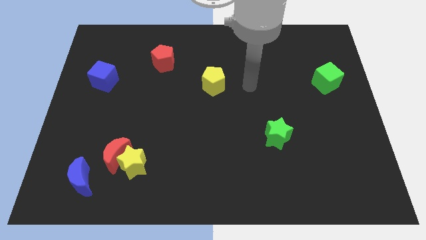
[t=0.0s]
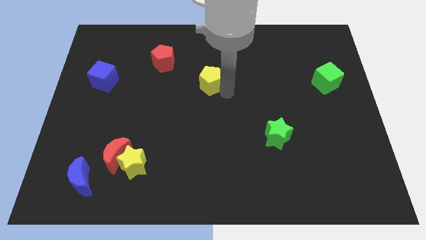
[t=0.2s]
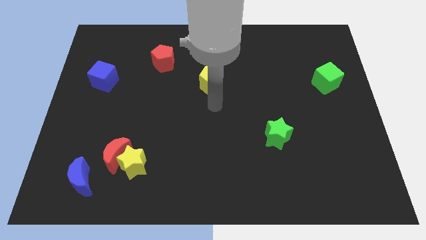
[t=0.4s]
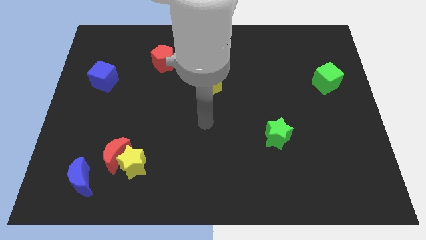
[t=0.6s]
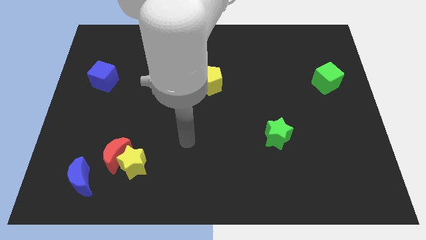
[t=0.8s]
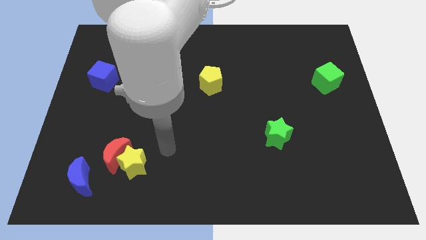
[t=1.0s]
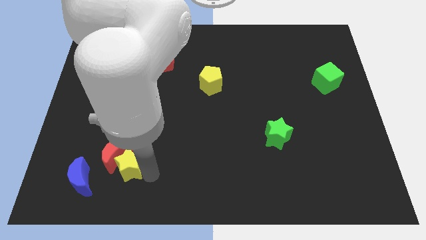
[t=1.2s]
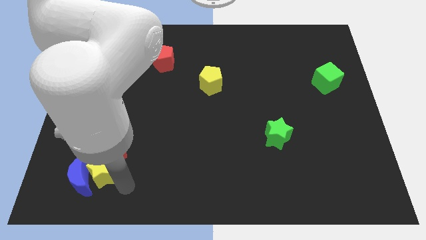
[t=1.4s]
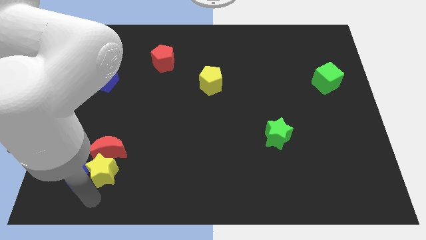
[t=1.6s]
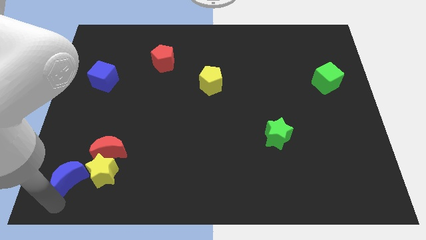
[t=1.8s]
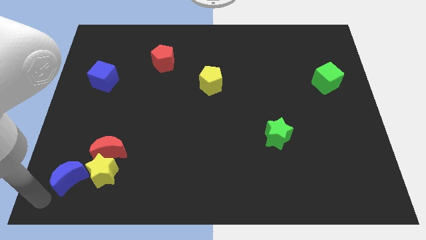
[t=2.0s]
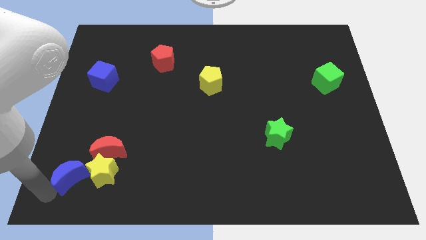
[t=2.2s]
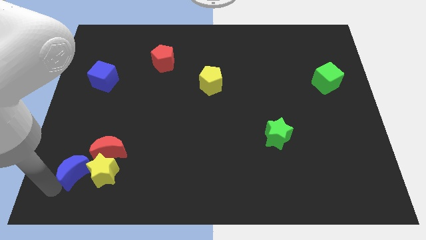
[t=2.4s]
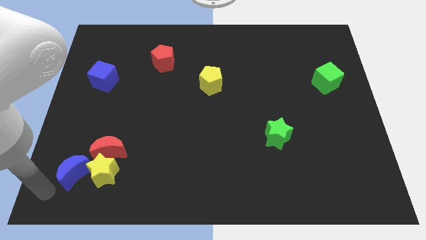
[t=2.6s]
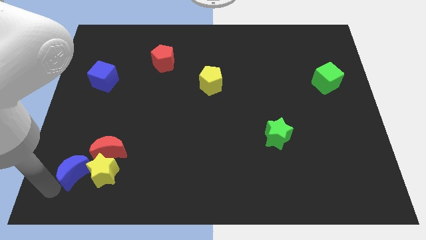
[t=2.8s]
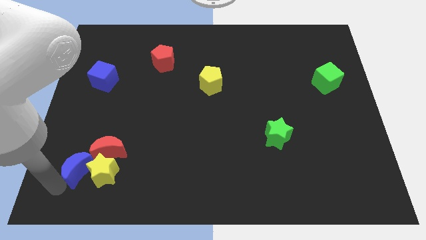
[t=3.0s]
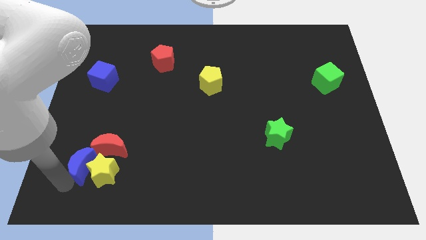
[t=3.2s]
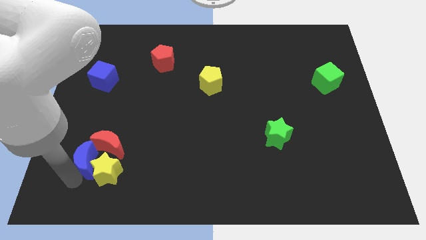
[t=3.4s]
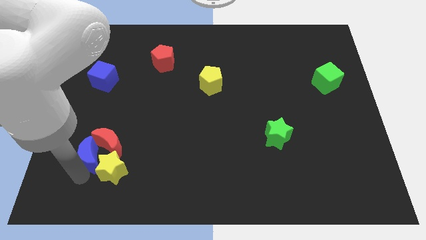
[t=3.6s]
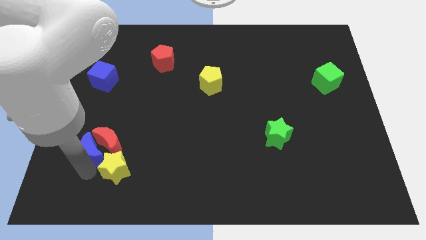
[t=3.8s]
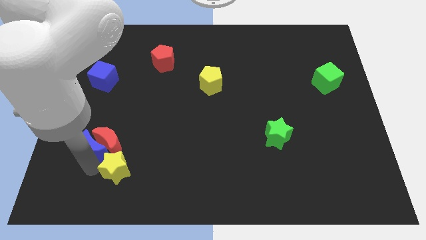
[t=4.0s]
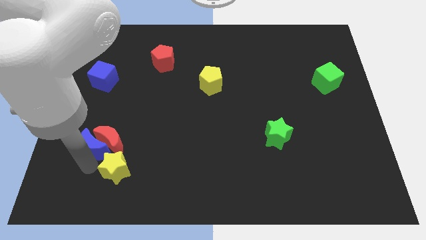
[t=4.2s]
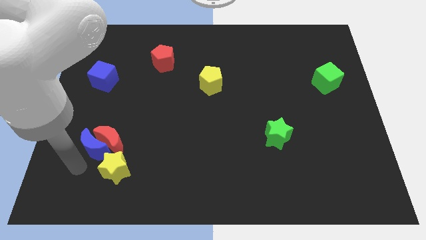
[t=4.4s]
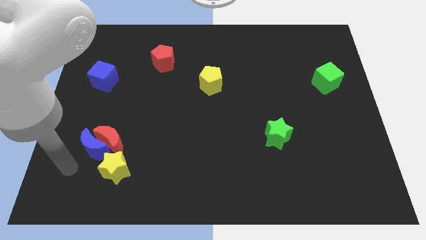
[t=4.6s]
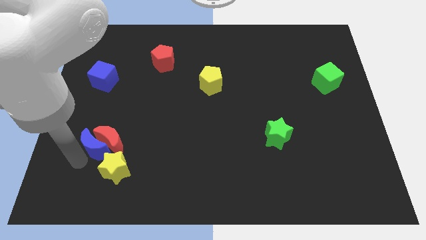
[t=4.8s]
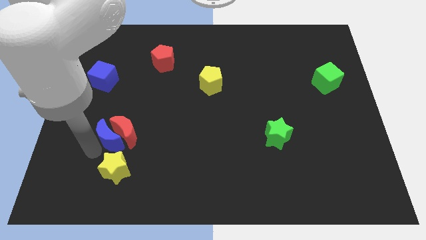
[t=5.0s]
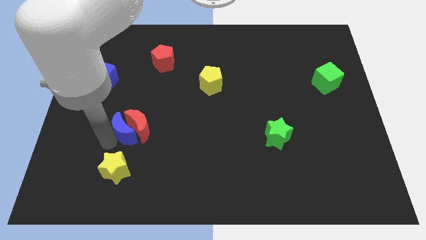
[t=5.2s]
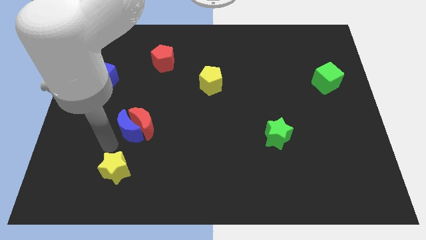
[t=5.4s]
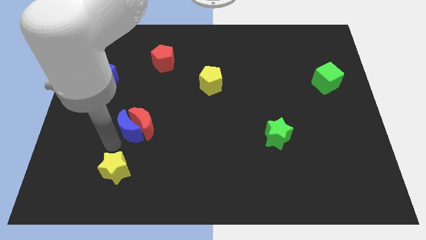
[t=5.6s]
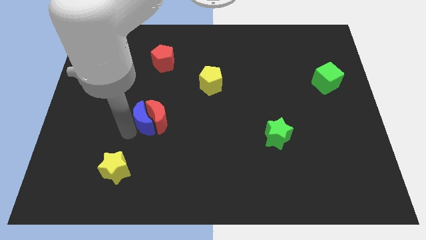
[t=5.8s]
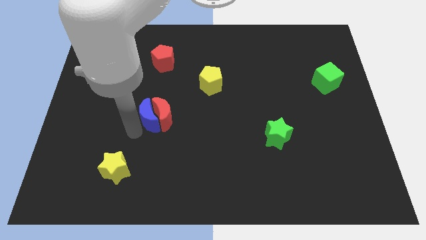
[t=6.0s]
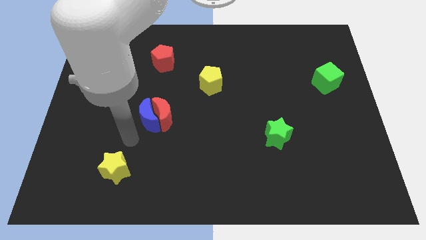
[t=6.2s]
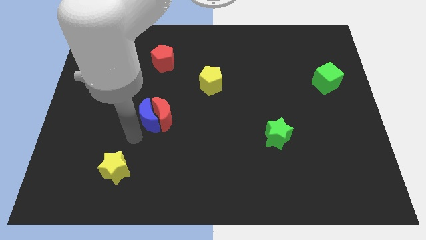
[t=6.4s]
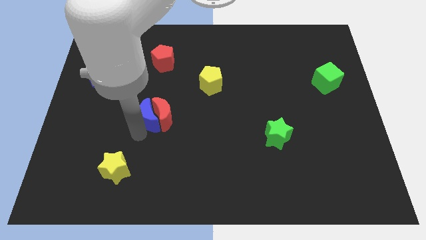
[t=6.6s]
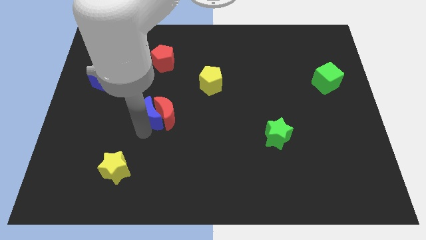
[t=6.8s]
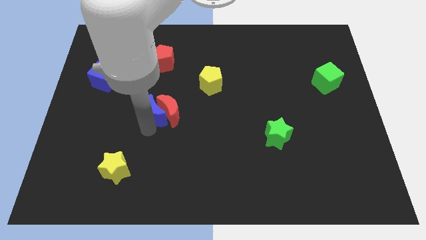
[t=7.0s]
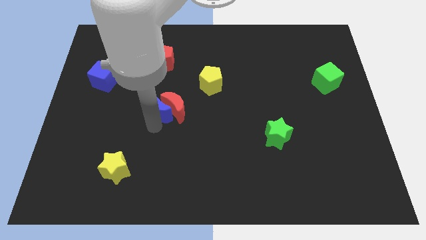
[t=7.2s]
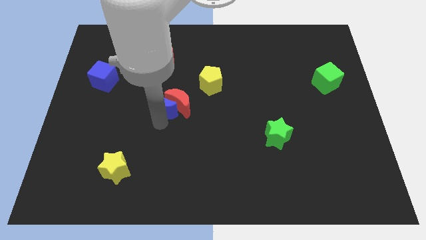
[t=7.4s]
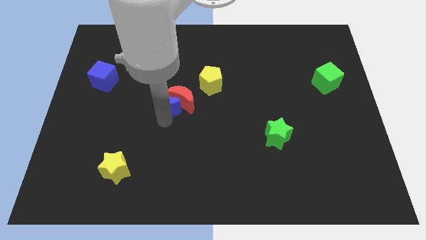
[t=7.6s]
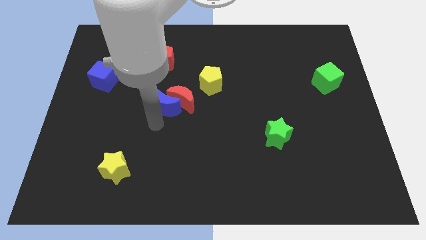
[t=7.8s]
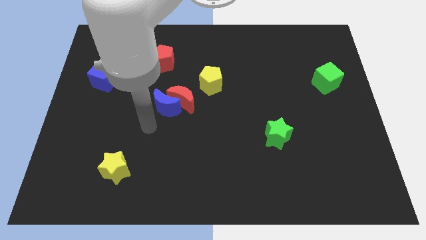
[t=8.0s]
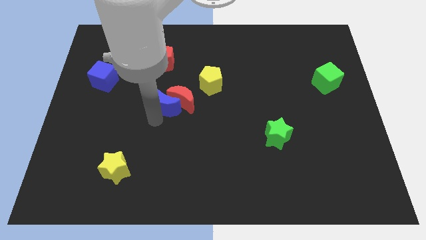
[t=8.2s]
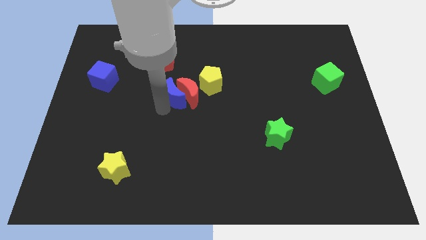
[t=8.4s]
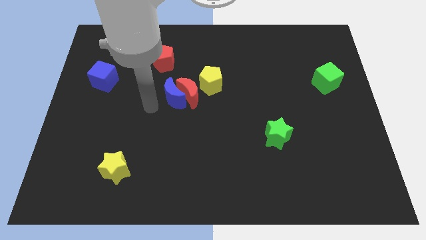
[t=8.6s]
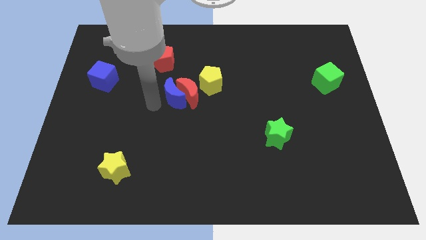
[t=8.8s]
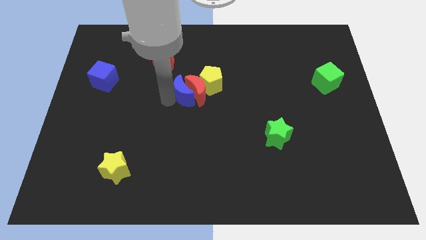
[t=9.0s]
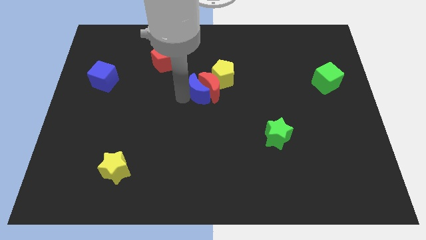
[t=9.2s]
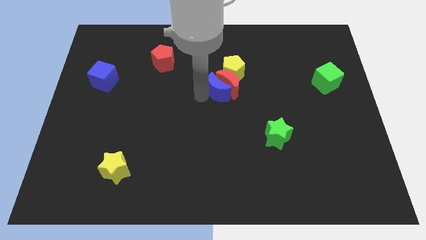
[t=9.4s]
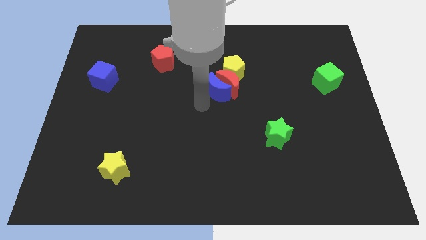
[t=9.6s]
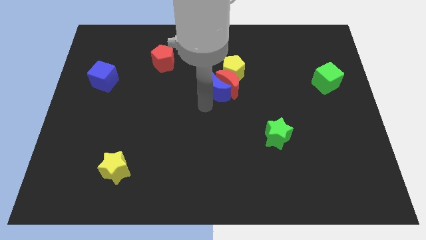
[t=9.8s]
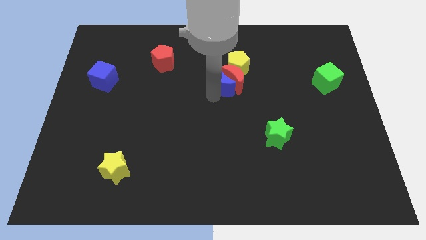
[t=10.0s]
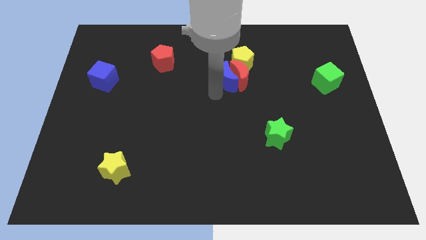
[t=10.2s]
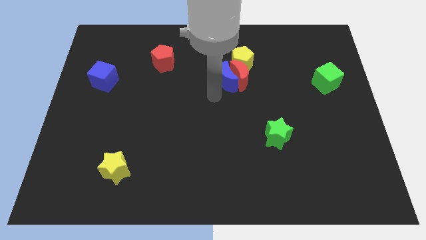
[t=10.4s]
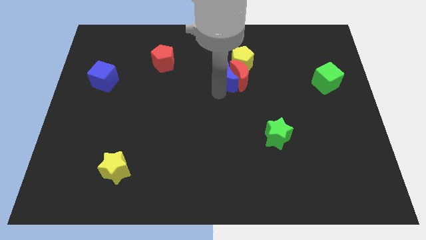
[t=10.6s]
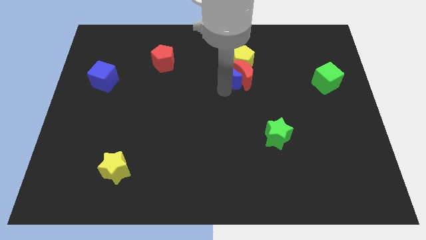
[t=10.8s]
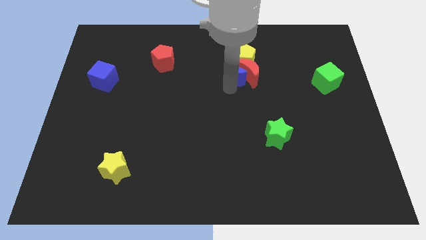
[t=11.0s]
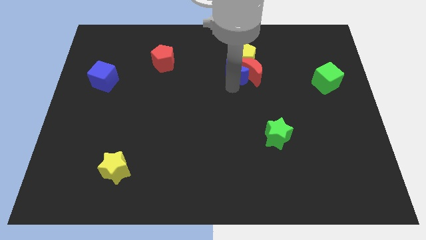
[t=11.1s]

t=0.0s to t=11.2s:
put the blue moon next to the yellow pentagon

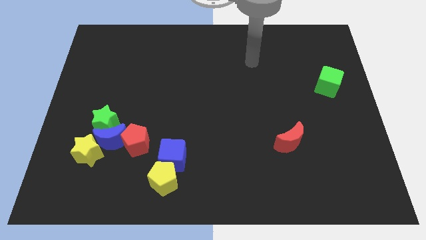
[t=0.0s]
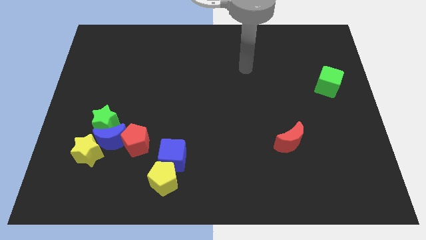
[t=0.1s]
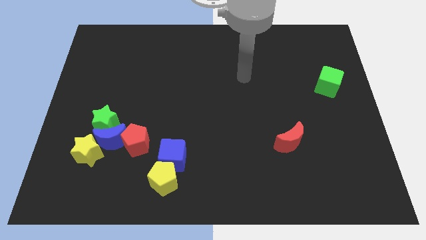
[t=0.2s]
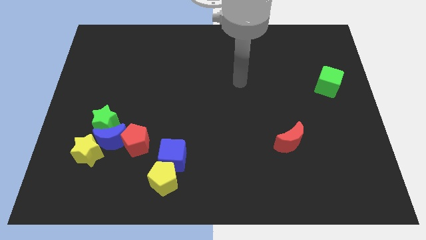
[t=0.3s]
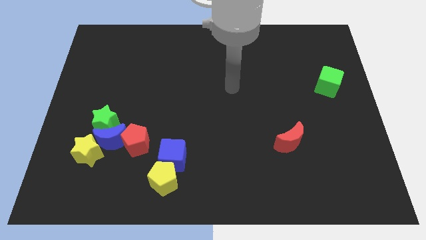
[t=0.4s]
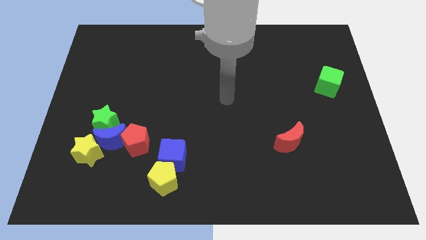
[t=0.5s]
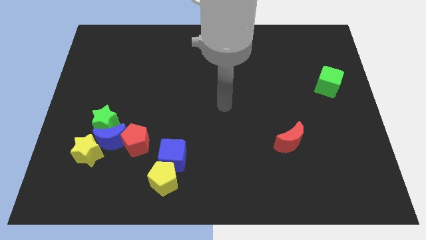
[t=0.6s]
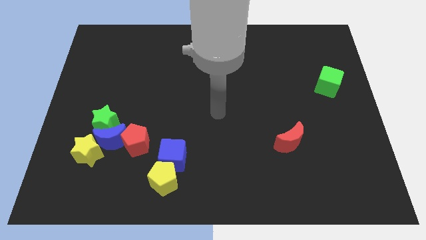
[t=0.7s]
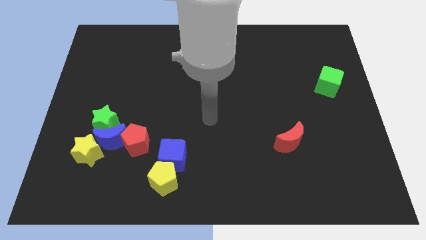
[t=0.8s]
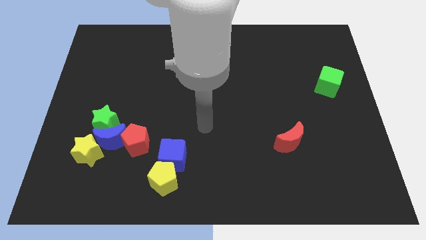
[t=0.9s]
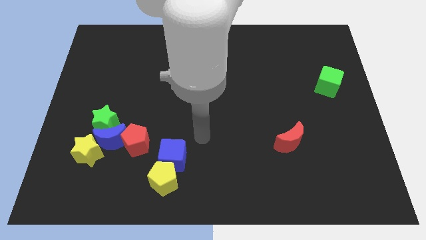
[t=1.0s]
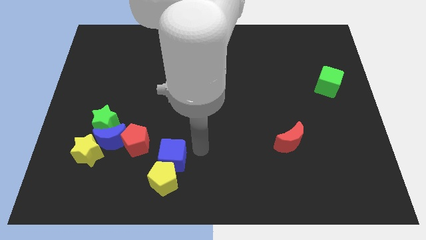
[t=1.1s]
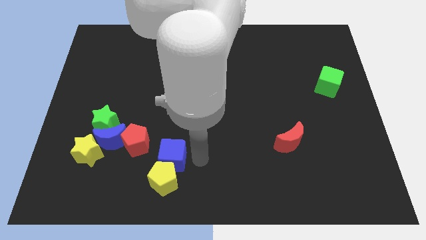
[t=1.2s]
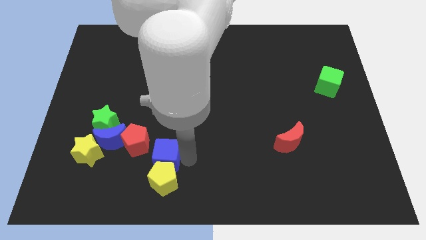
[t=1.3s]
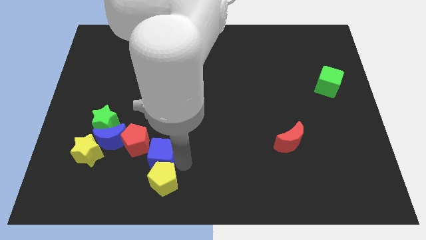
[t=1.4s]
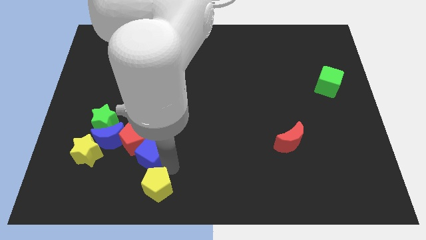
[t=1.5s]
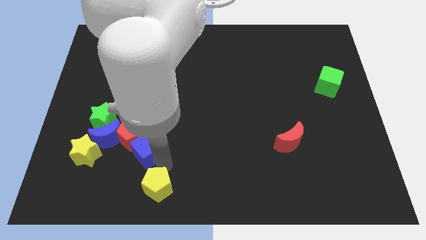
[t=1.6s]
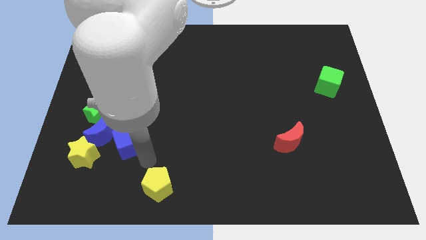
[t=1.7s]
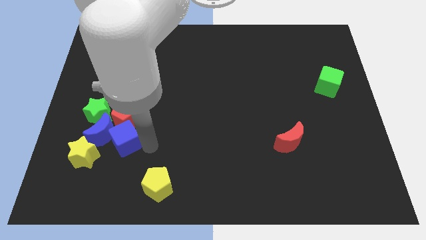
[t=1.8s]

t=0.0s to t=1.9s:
push the red pentagon close to the green star
